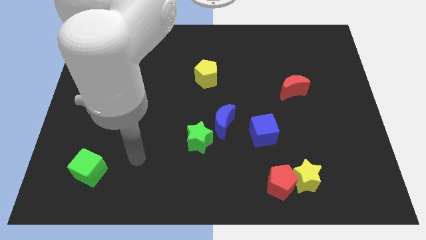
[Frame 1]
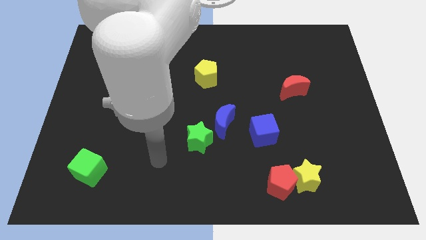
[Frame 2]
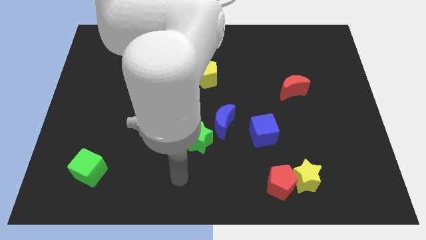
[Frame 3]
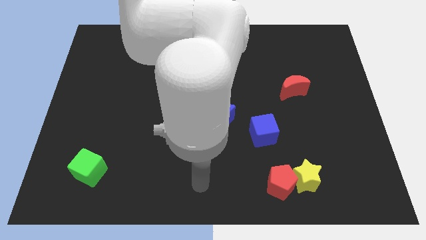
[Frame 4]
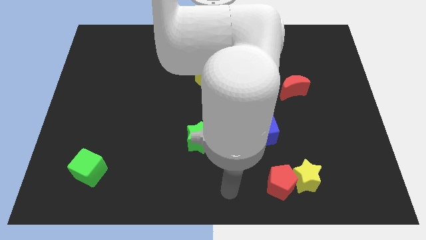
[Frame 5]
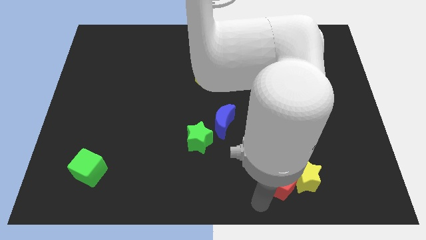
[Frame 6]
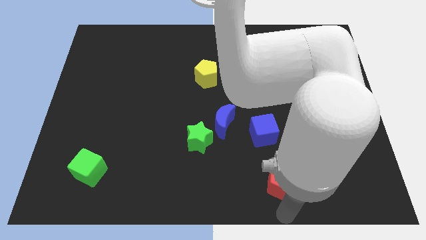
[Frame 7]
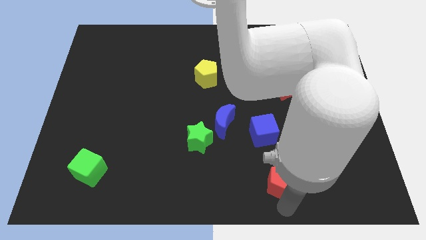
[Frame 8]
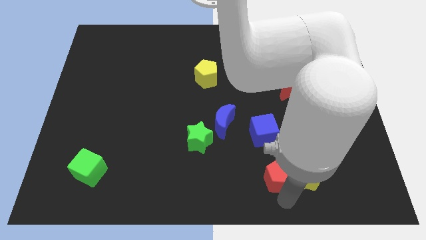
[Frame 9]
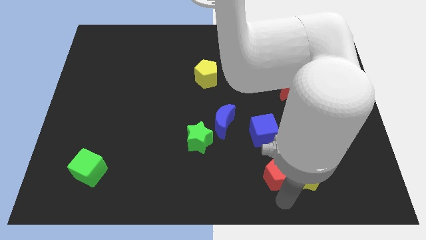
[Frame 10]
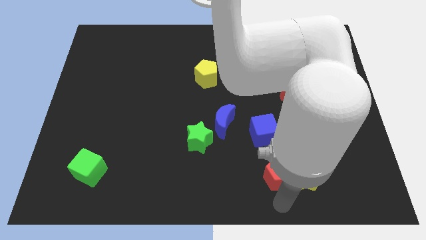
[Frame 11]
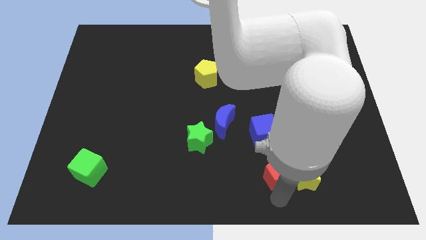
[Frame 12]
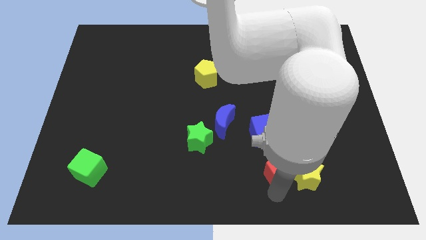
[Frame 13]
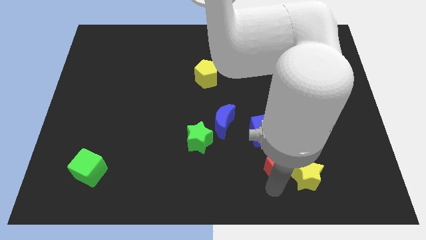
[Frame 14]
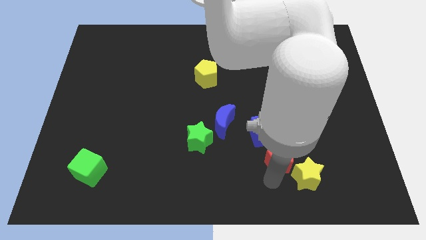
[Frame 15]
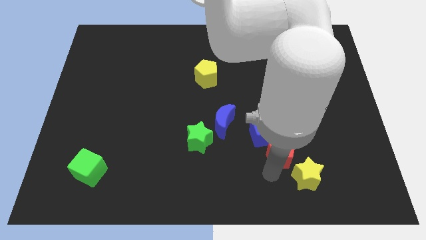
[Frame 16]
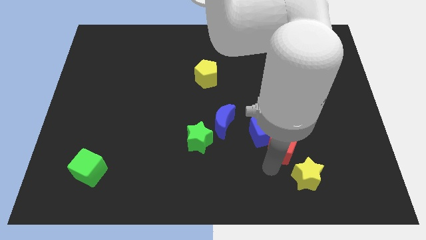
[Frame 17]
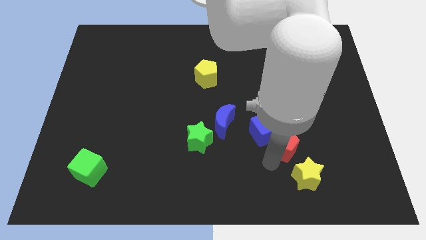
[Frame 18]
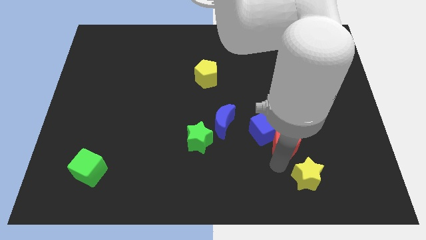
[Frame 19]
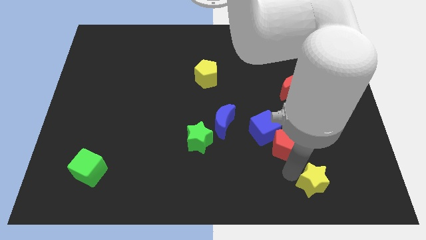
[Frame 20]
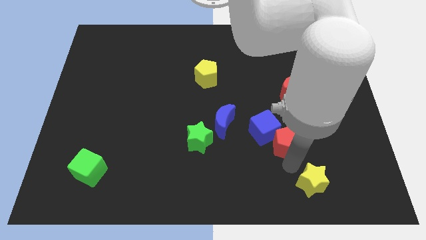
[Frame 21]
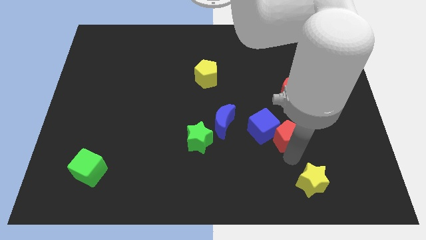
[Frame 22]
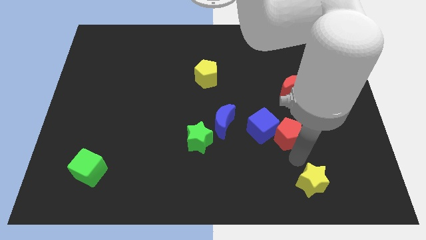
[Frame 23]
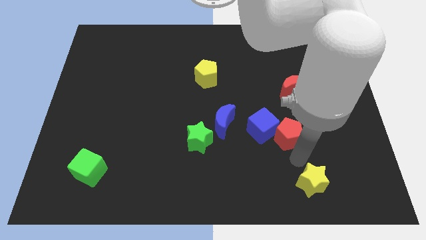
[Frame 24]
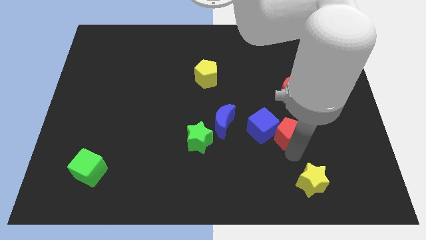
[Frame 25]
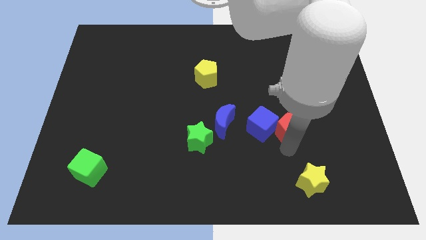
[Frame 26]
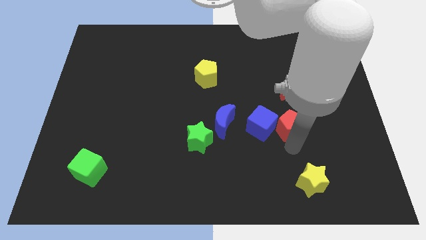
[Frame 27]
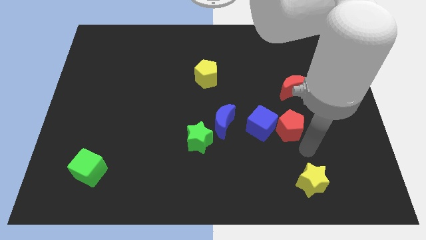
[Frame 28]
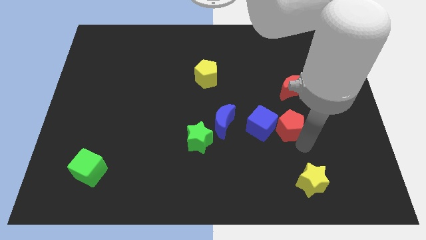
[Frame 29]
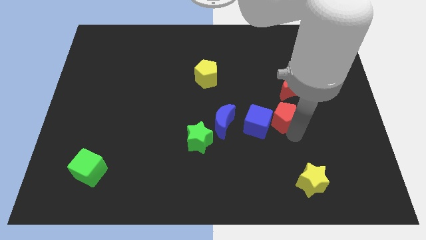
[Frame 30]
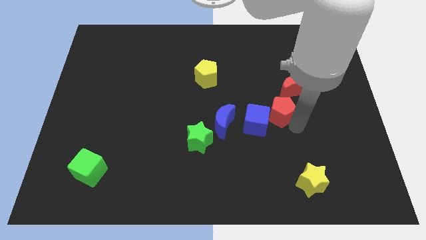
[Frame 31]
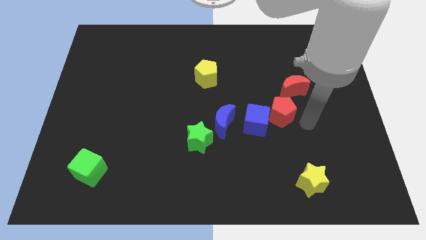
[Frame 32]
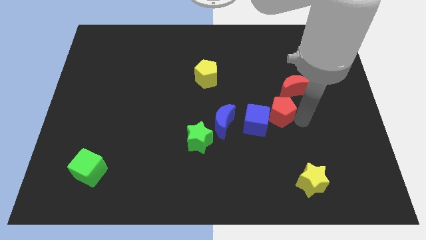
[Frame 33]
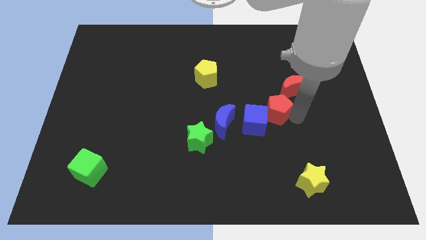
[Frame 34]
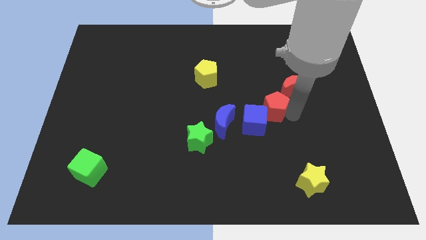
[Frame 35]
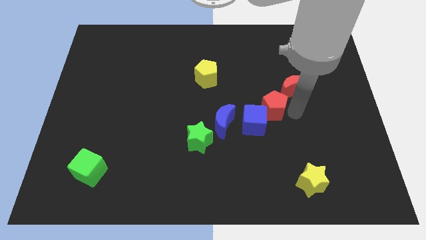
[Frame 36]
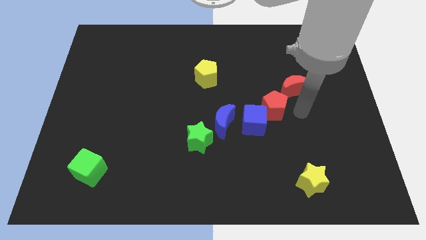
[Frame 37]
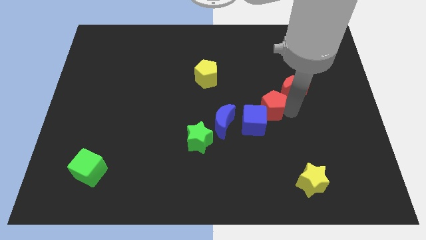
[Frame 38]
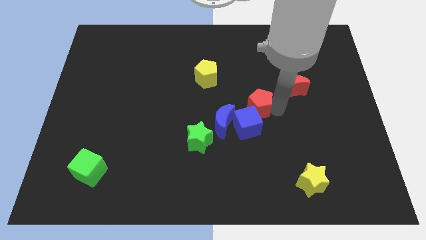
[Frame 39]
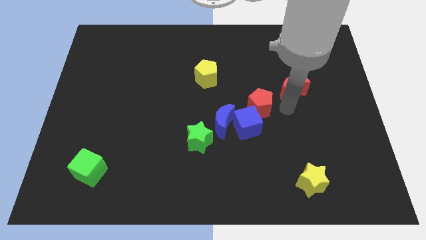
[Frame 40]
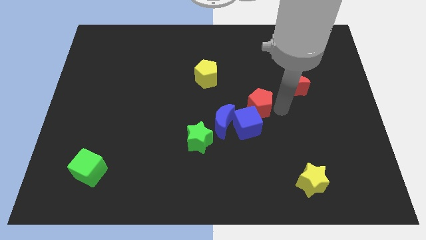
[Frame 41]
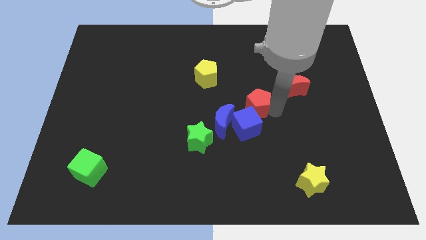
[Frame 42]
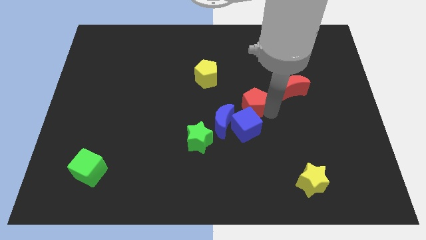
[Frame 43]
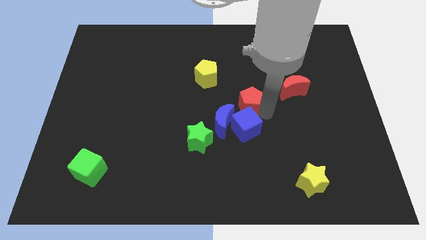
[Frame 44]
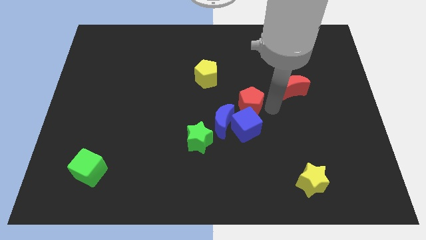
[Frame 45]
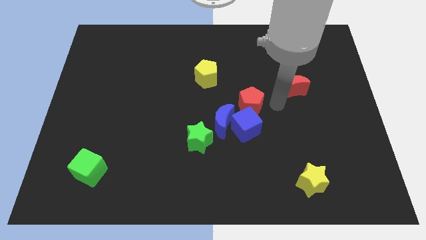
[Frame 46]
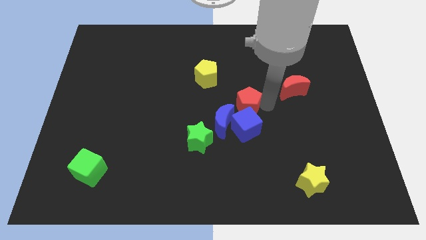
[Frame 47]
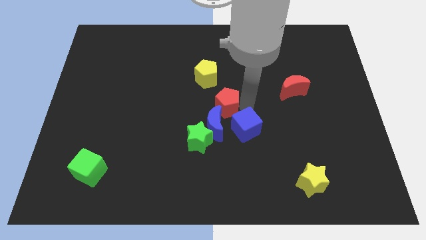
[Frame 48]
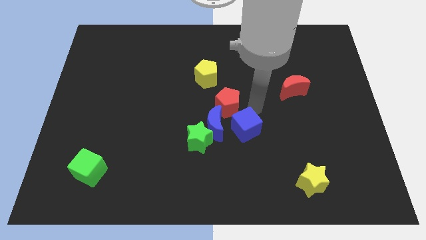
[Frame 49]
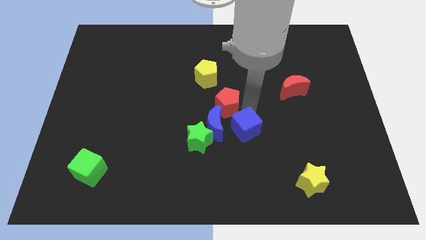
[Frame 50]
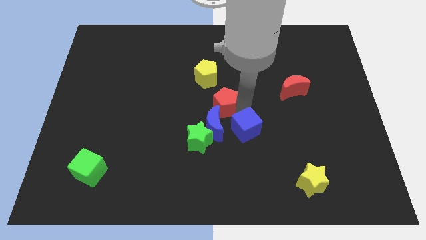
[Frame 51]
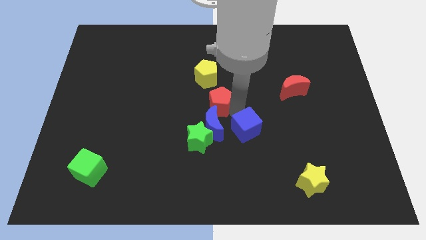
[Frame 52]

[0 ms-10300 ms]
move the red pentagon to the top of the green star

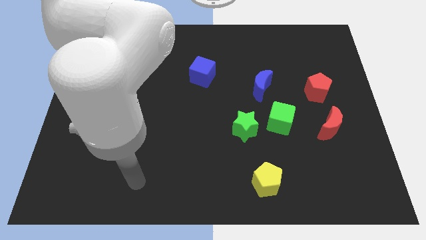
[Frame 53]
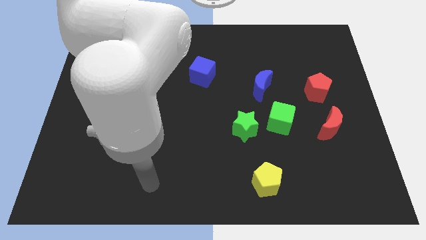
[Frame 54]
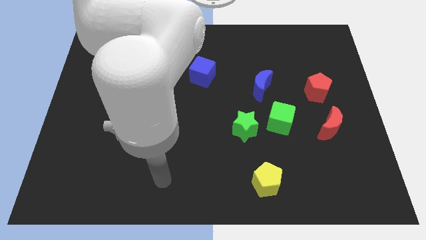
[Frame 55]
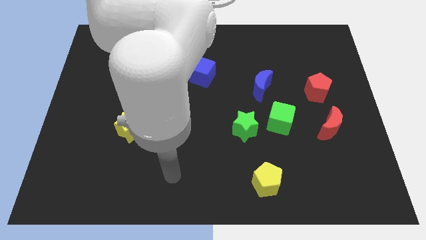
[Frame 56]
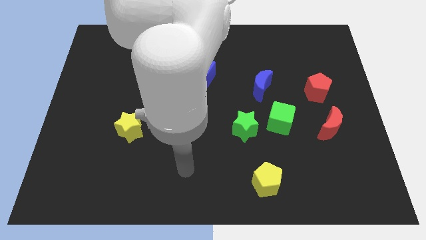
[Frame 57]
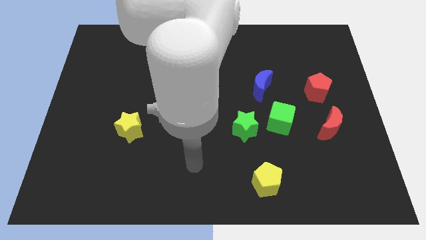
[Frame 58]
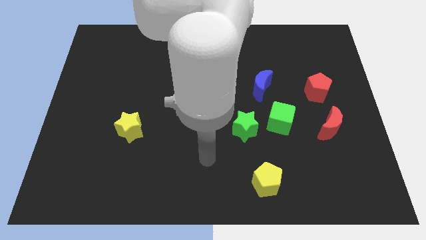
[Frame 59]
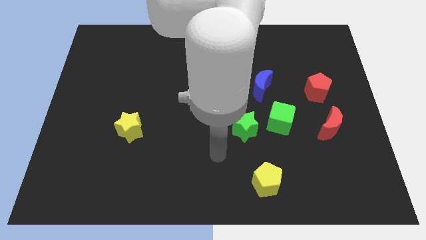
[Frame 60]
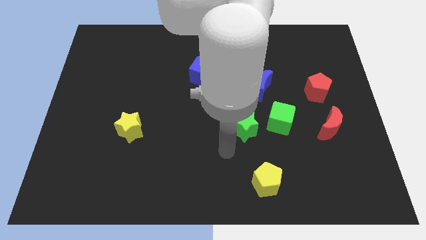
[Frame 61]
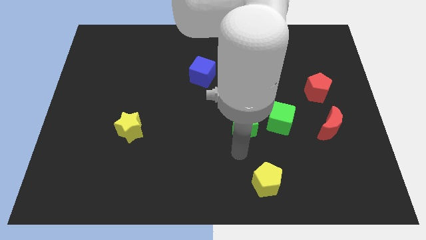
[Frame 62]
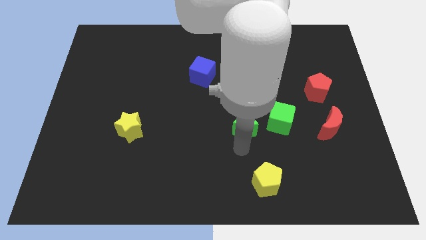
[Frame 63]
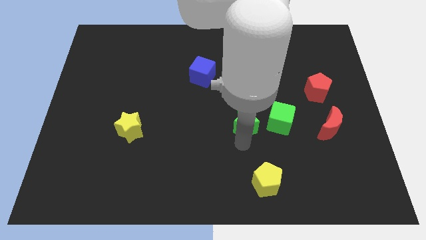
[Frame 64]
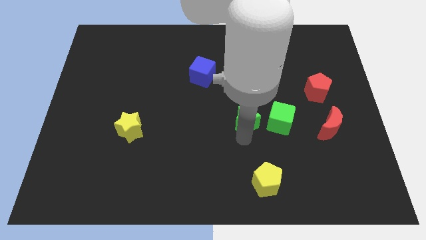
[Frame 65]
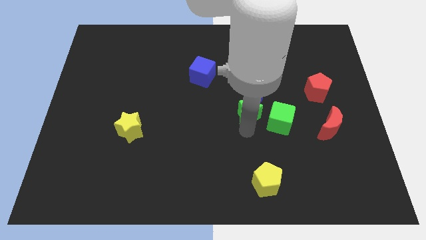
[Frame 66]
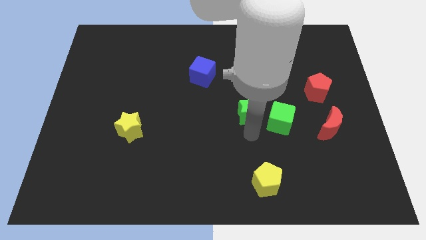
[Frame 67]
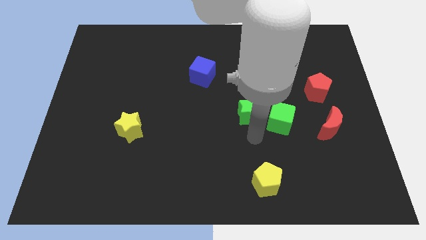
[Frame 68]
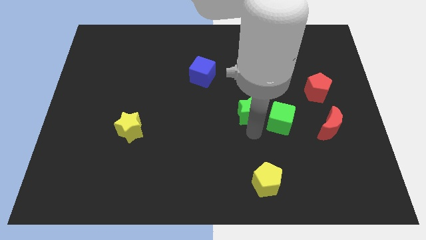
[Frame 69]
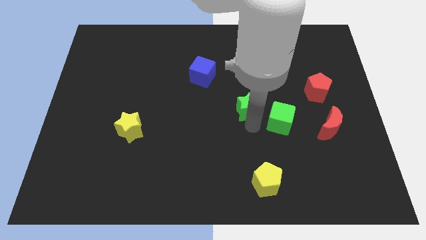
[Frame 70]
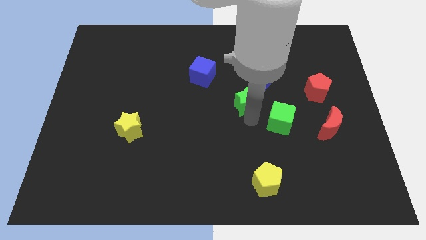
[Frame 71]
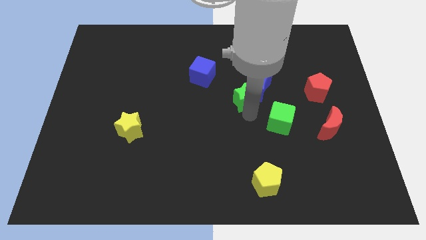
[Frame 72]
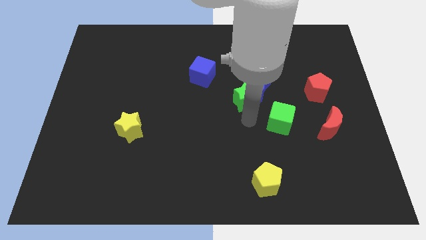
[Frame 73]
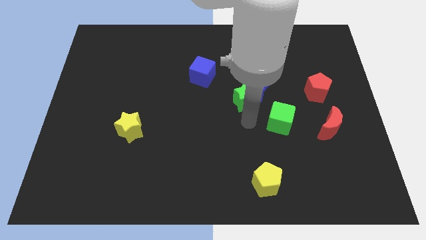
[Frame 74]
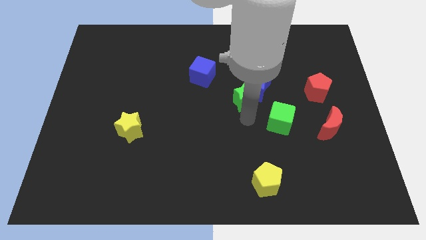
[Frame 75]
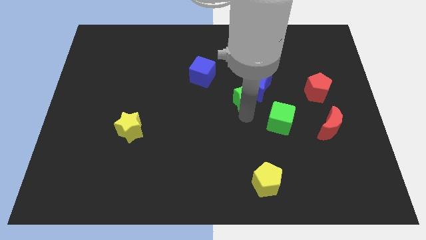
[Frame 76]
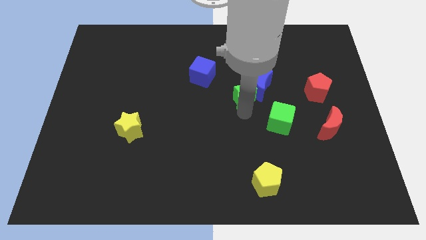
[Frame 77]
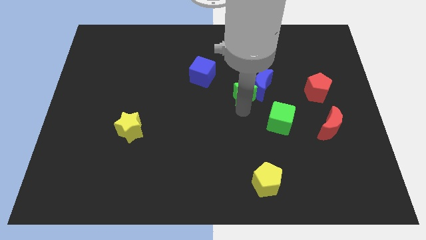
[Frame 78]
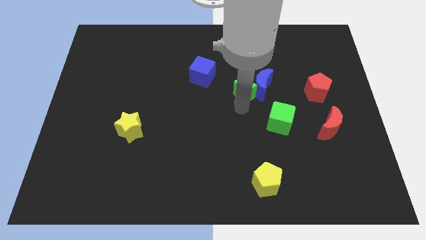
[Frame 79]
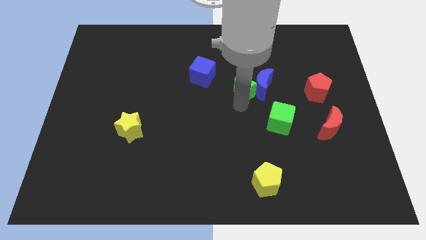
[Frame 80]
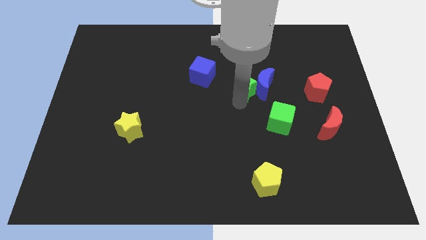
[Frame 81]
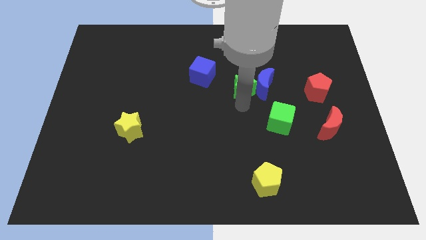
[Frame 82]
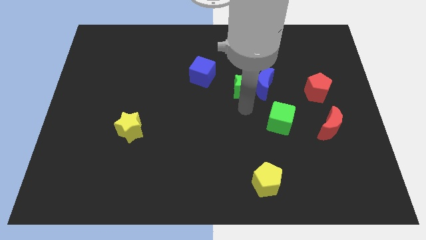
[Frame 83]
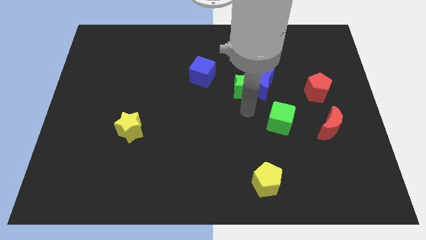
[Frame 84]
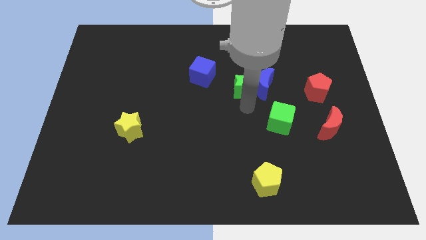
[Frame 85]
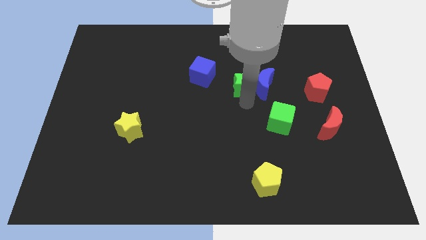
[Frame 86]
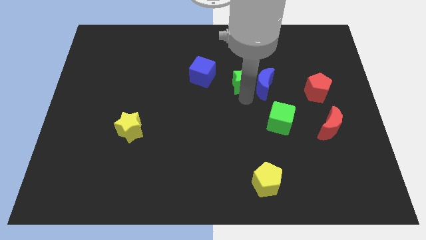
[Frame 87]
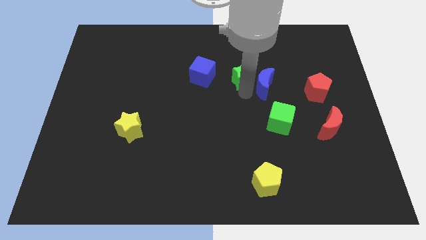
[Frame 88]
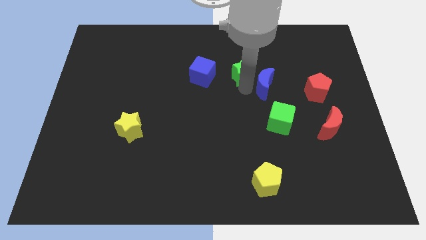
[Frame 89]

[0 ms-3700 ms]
put the green star to the top of the blue moon
